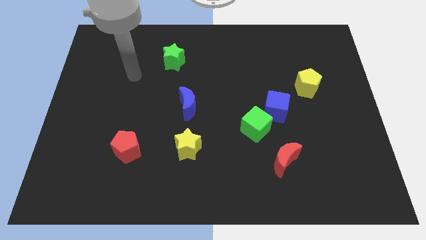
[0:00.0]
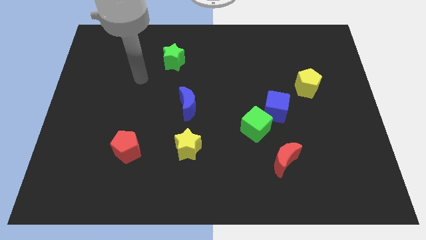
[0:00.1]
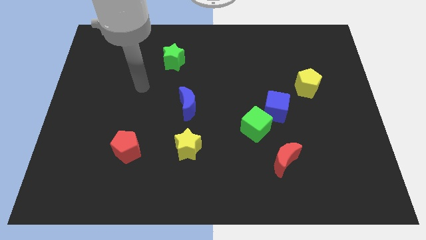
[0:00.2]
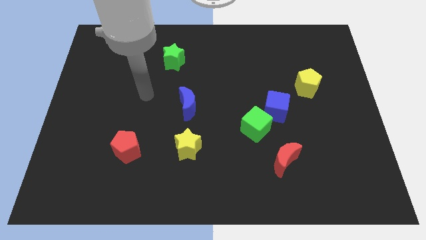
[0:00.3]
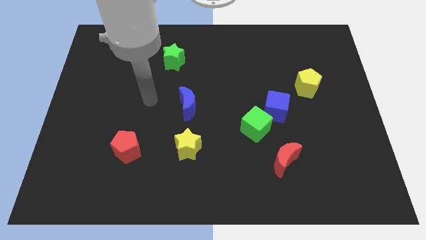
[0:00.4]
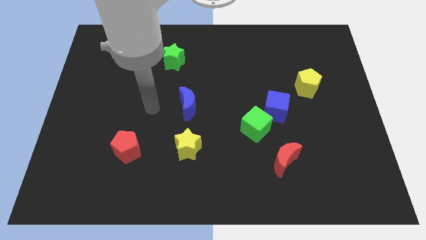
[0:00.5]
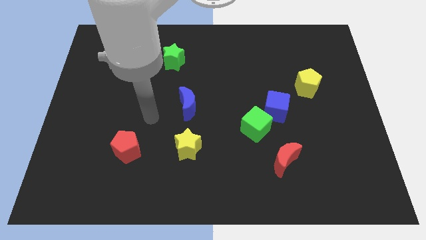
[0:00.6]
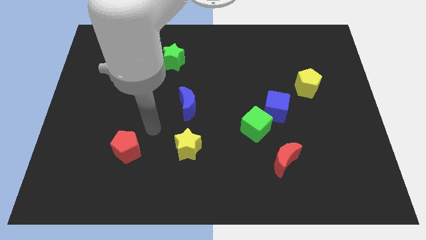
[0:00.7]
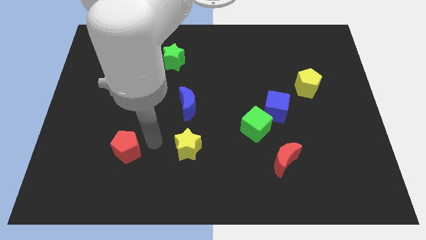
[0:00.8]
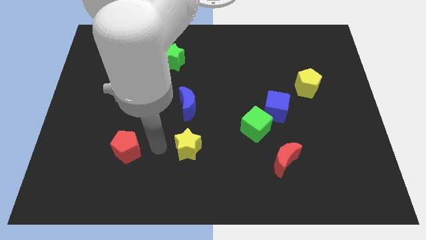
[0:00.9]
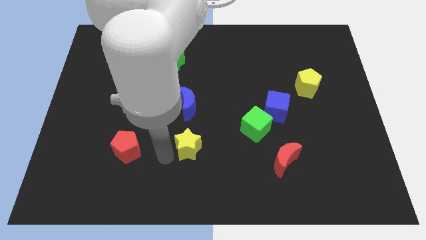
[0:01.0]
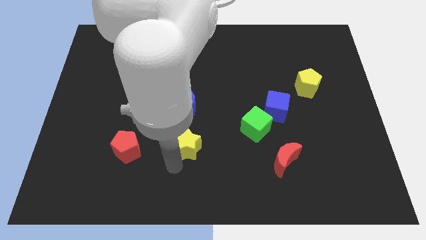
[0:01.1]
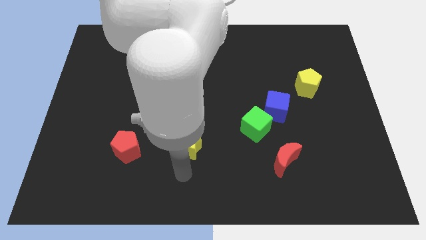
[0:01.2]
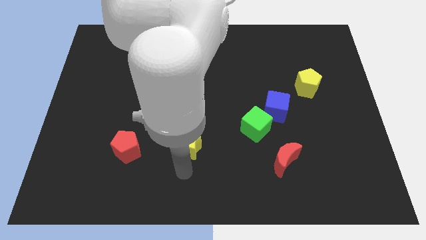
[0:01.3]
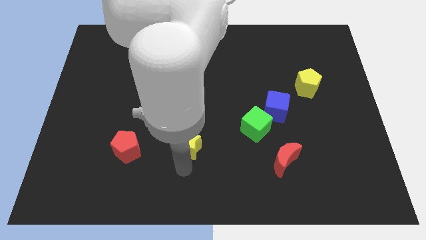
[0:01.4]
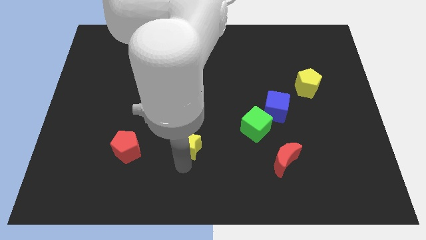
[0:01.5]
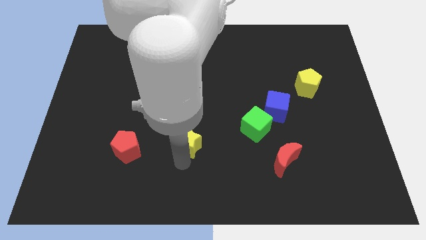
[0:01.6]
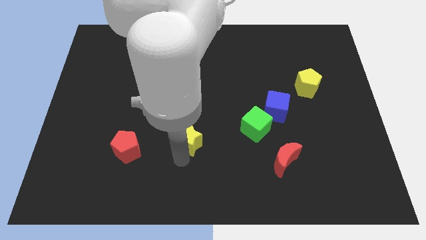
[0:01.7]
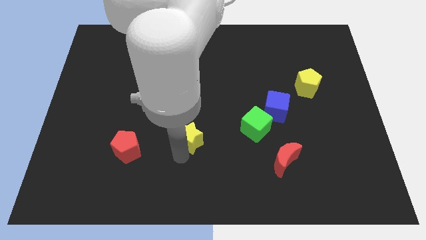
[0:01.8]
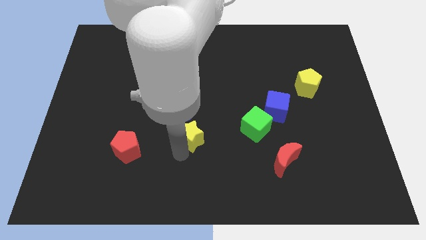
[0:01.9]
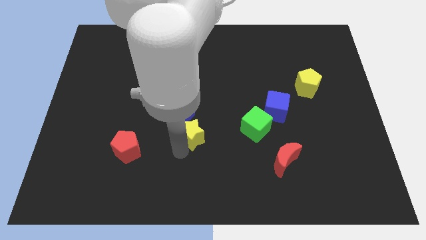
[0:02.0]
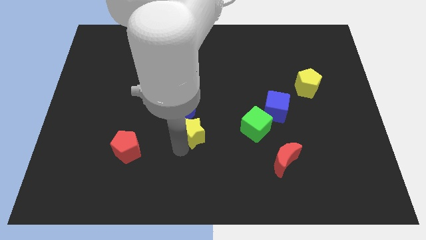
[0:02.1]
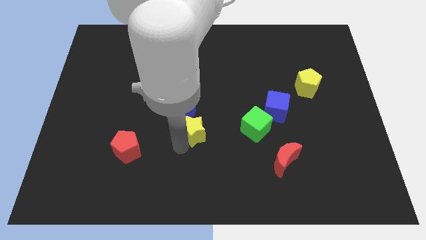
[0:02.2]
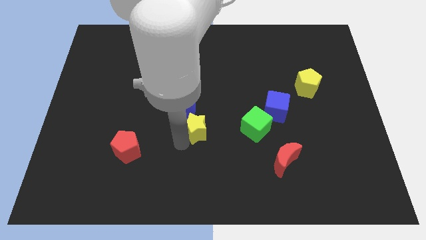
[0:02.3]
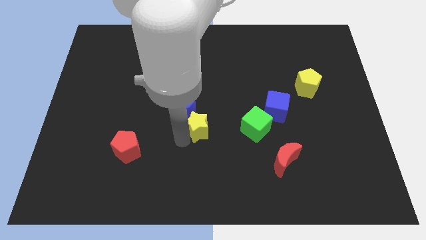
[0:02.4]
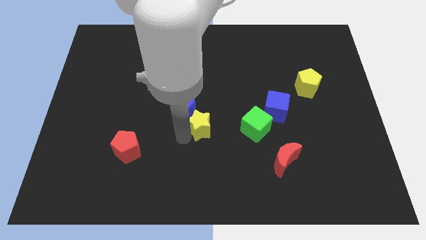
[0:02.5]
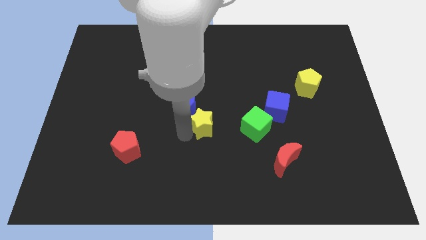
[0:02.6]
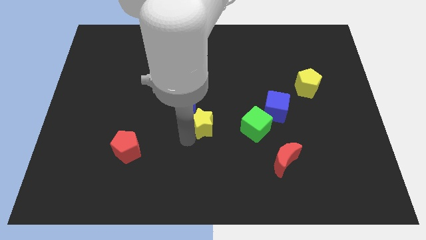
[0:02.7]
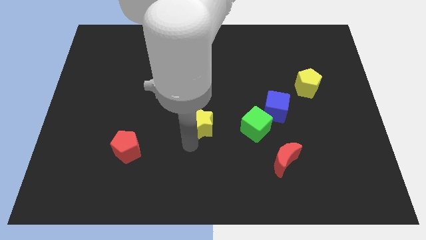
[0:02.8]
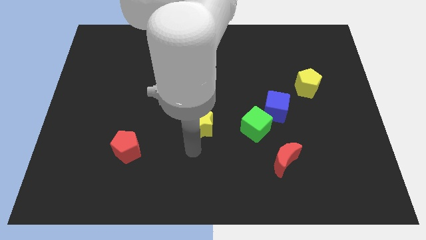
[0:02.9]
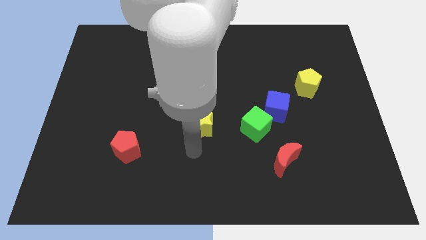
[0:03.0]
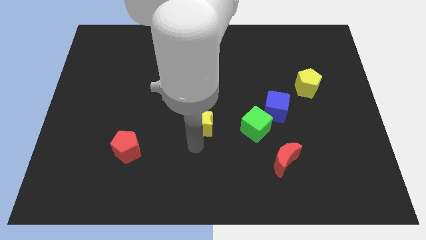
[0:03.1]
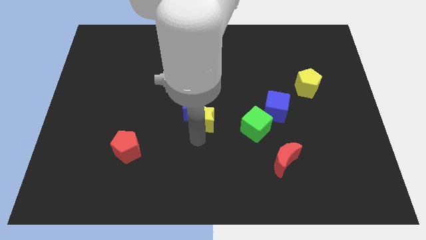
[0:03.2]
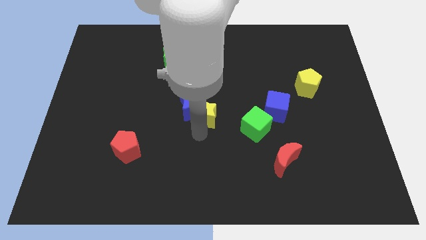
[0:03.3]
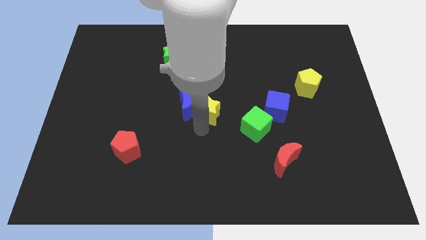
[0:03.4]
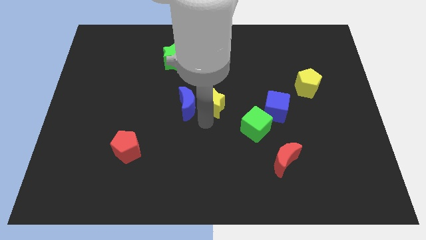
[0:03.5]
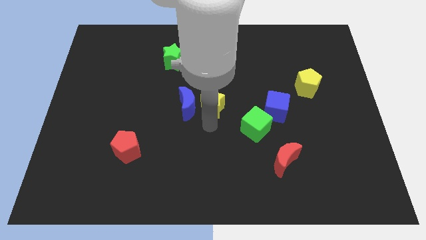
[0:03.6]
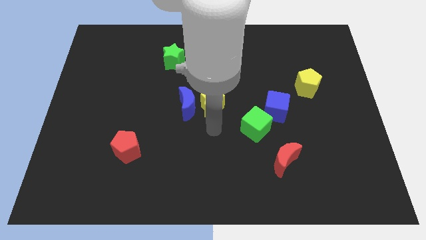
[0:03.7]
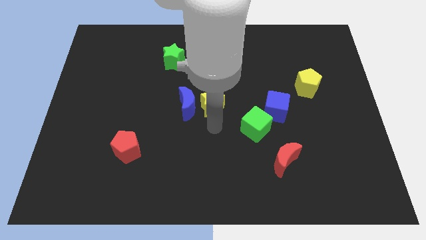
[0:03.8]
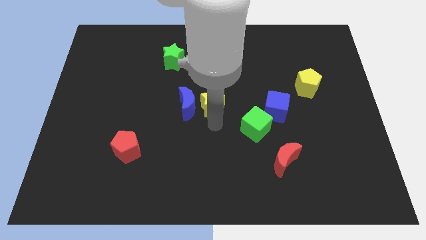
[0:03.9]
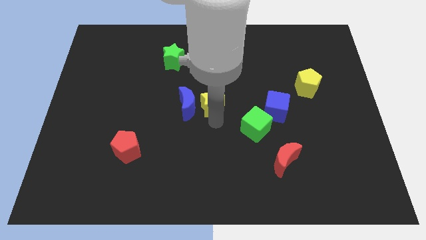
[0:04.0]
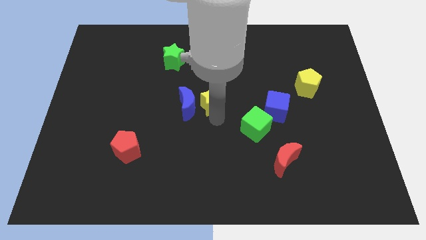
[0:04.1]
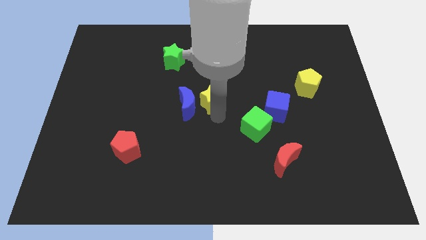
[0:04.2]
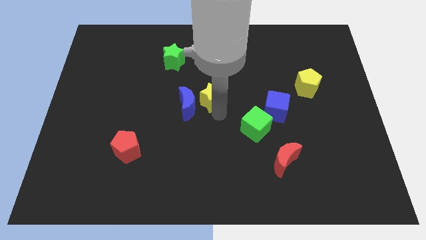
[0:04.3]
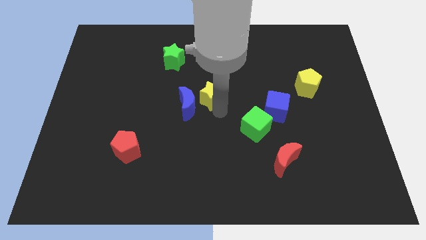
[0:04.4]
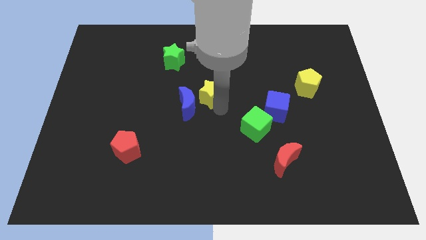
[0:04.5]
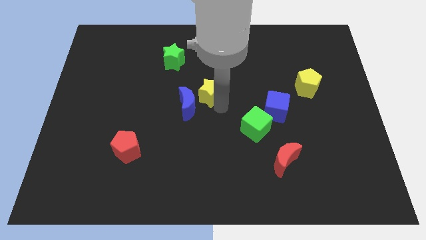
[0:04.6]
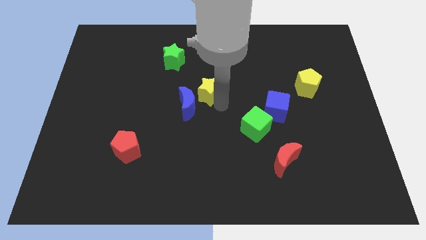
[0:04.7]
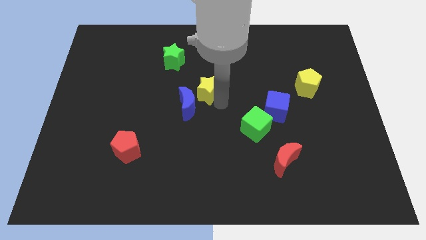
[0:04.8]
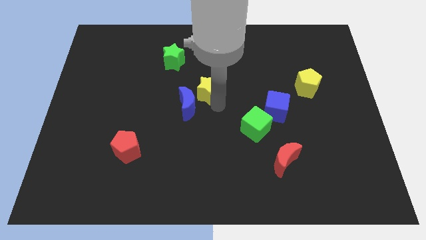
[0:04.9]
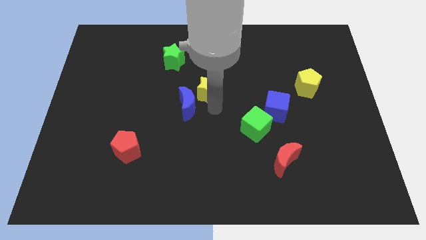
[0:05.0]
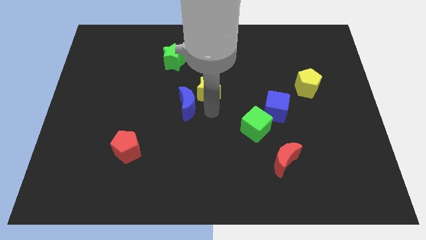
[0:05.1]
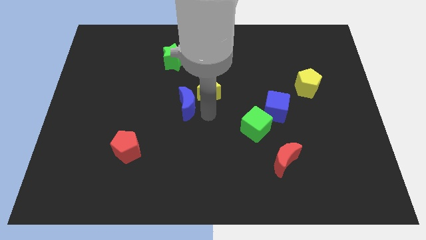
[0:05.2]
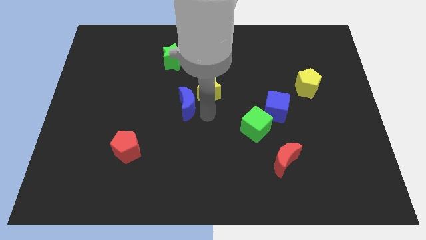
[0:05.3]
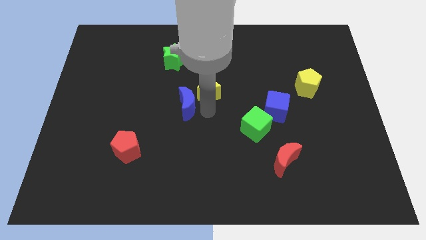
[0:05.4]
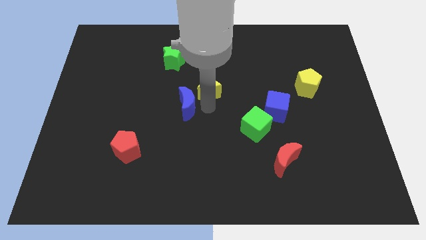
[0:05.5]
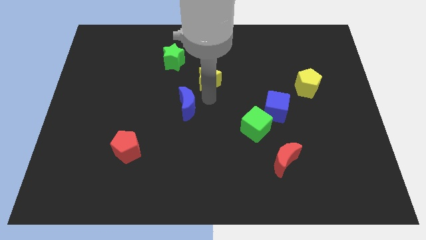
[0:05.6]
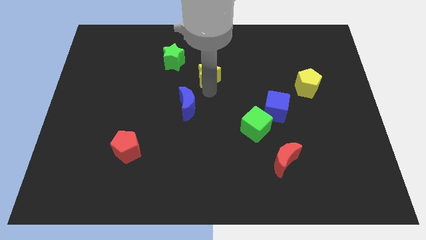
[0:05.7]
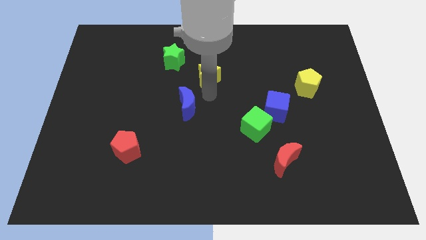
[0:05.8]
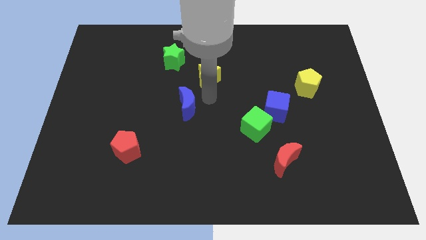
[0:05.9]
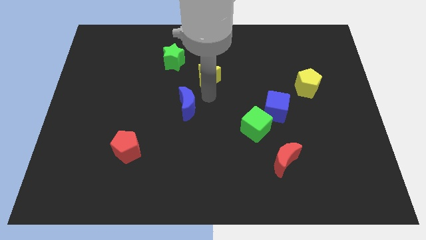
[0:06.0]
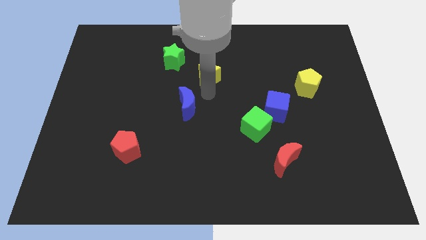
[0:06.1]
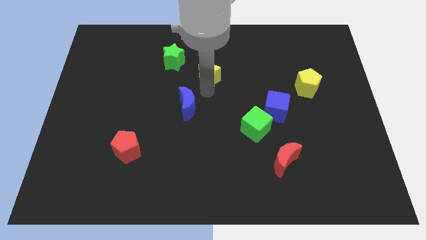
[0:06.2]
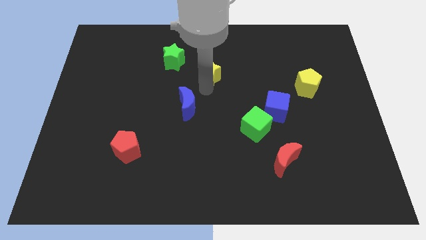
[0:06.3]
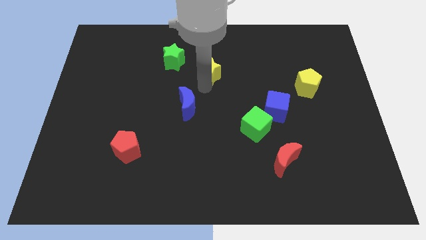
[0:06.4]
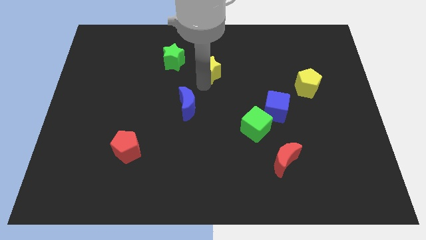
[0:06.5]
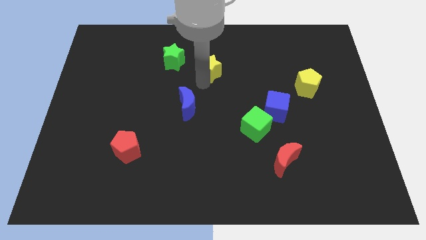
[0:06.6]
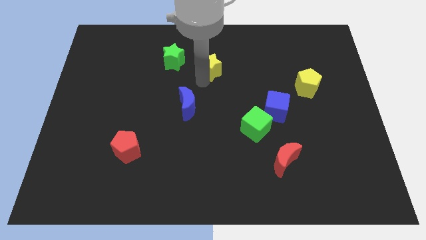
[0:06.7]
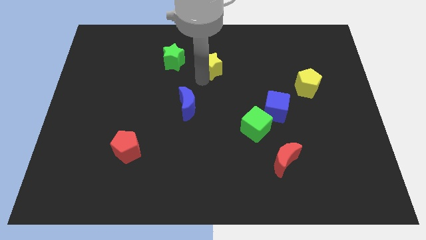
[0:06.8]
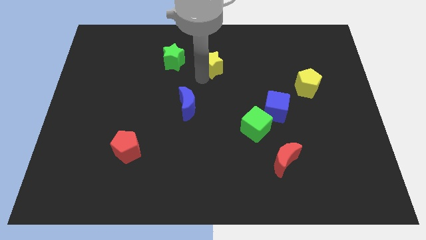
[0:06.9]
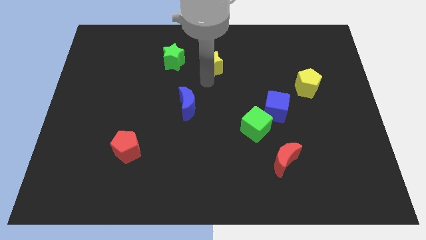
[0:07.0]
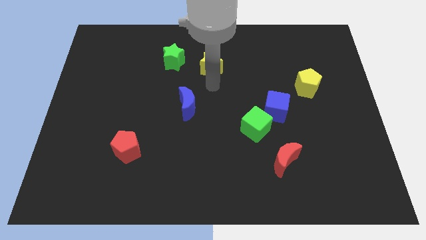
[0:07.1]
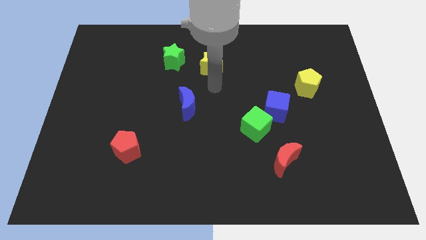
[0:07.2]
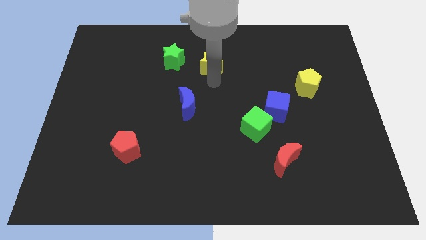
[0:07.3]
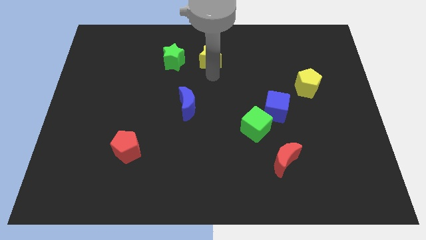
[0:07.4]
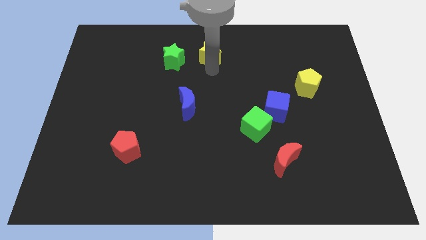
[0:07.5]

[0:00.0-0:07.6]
put the yellow star to the top
